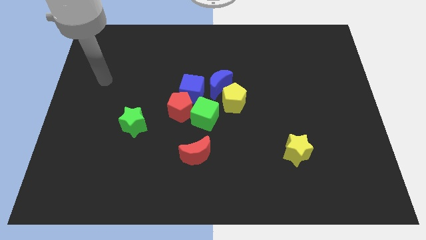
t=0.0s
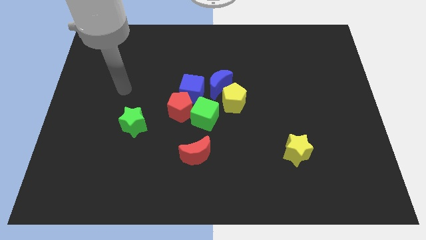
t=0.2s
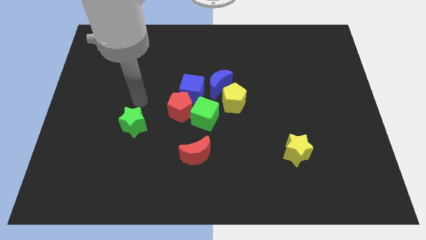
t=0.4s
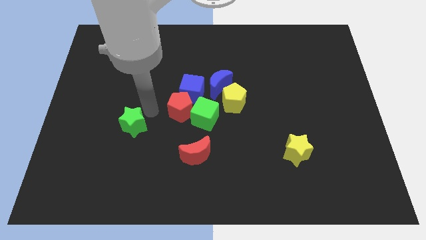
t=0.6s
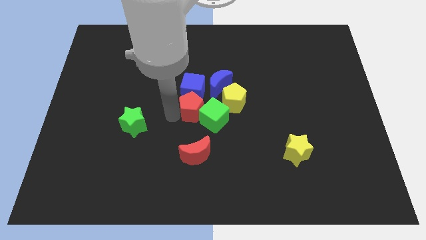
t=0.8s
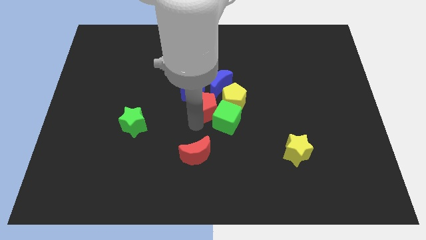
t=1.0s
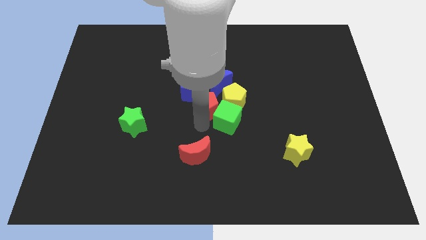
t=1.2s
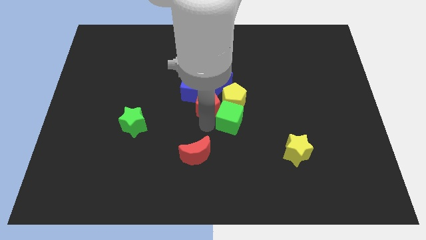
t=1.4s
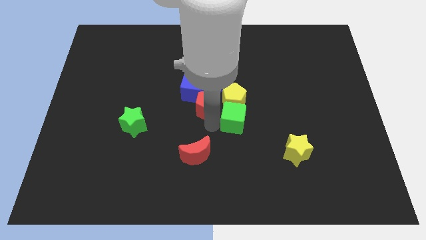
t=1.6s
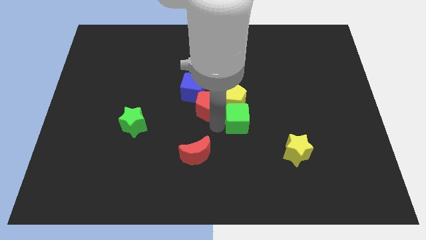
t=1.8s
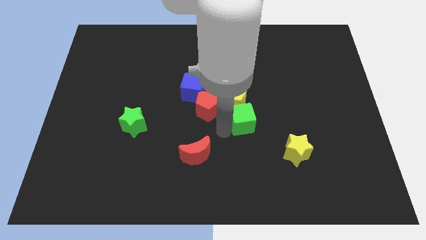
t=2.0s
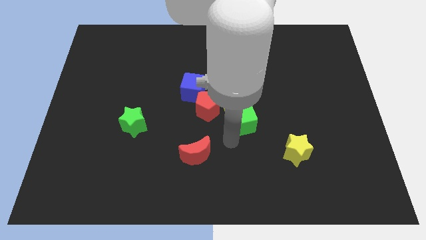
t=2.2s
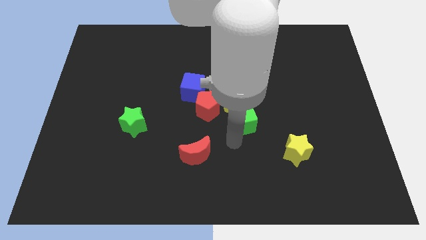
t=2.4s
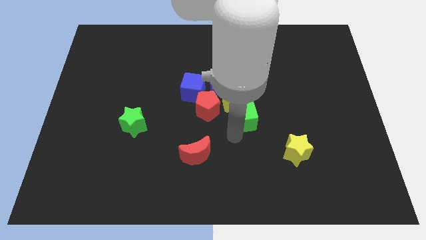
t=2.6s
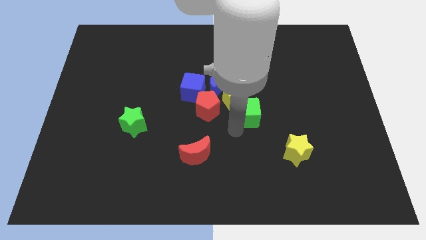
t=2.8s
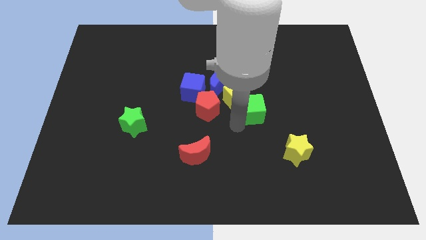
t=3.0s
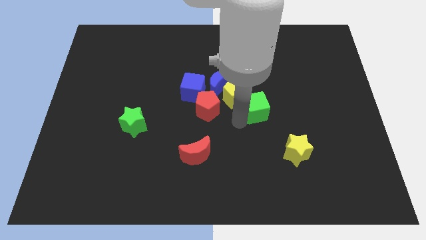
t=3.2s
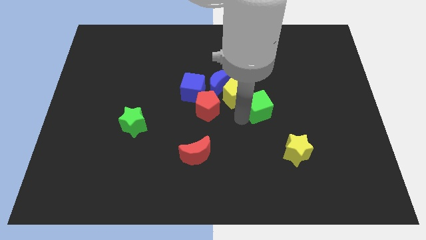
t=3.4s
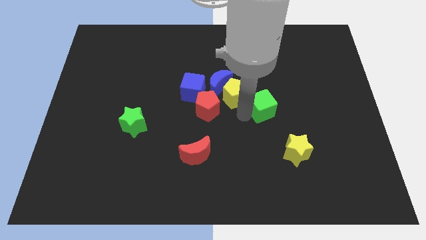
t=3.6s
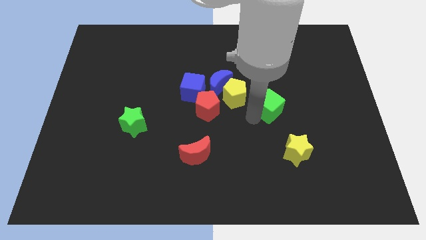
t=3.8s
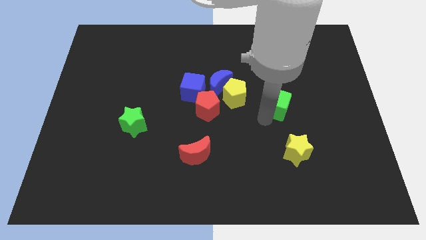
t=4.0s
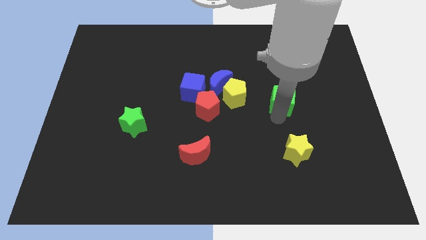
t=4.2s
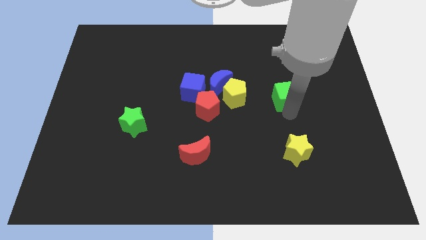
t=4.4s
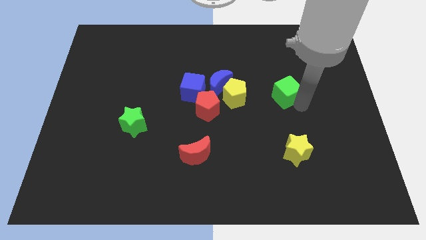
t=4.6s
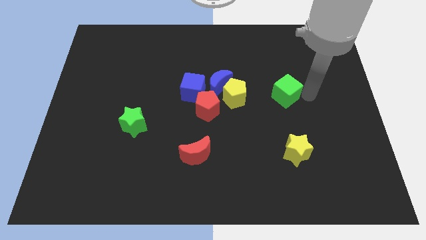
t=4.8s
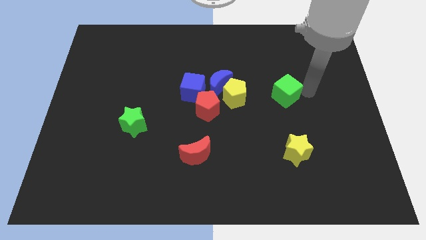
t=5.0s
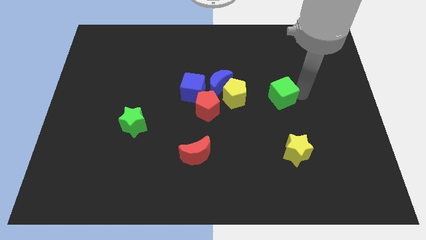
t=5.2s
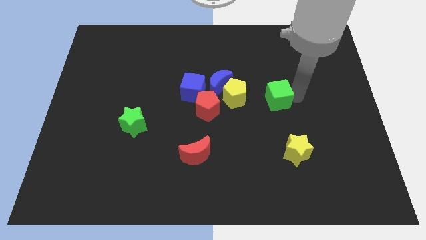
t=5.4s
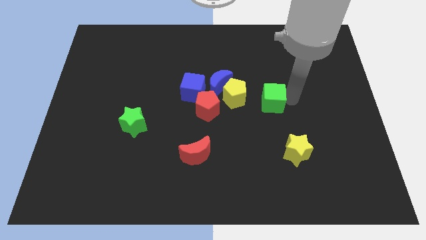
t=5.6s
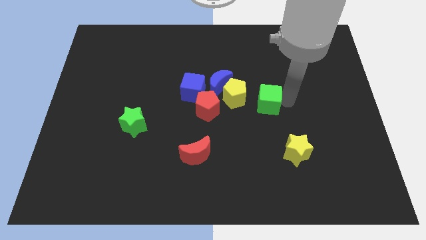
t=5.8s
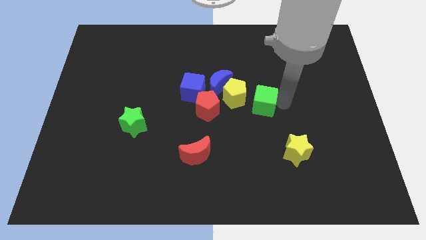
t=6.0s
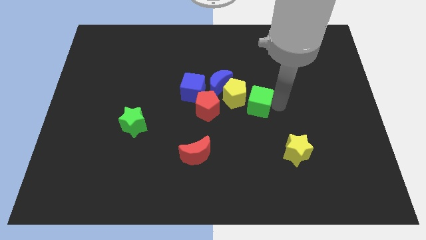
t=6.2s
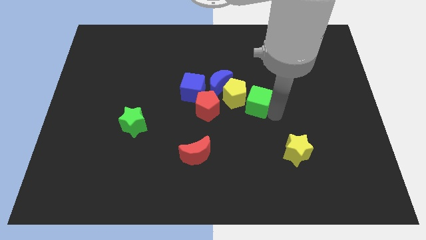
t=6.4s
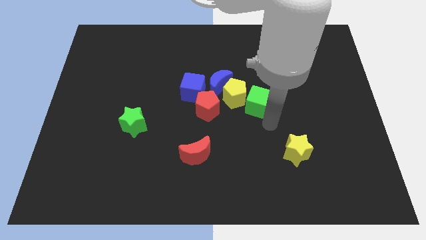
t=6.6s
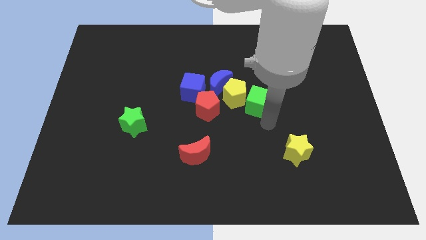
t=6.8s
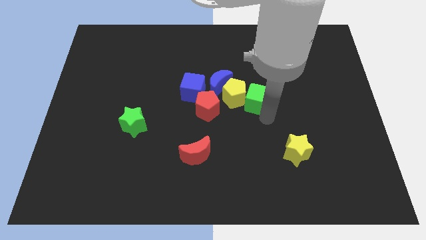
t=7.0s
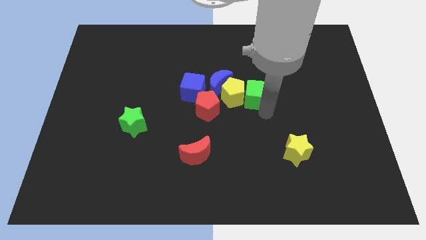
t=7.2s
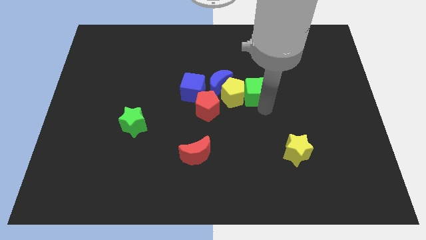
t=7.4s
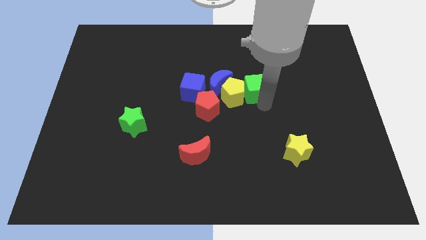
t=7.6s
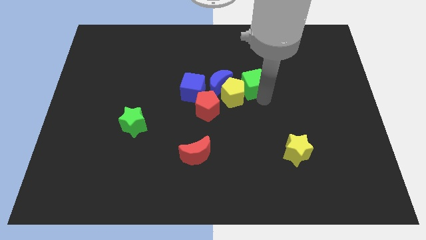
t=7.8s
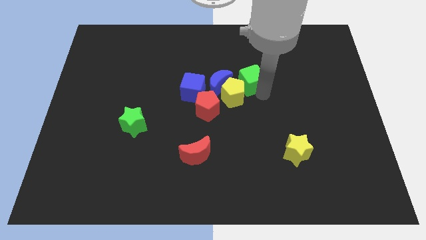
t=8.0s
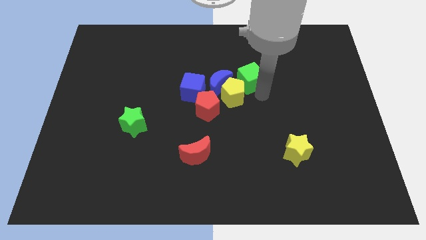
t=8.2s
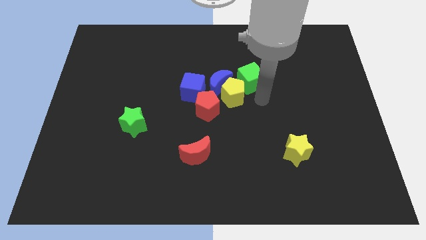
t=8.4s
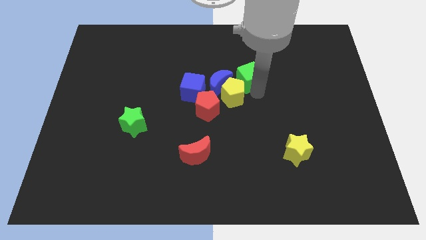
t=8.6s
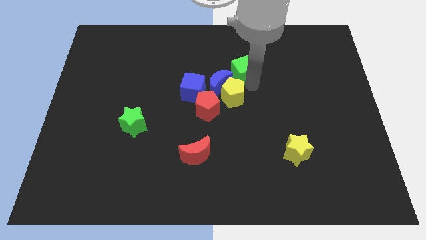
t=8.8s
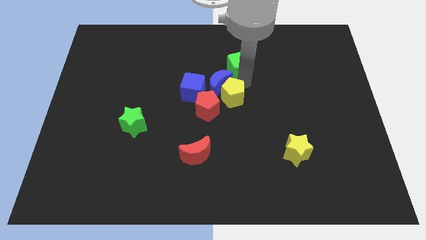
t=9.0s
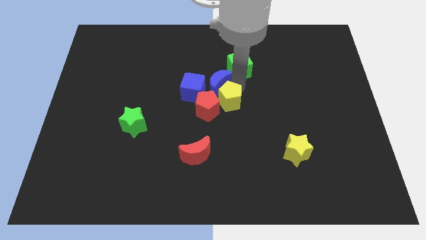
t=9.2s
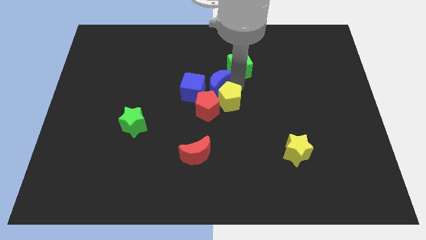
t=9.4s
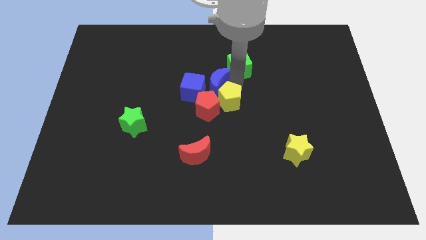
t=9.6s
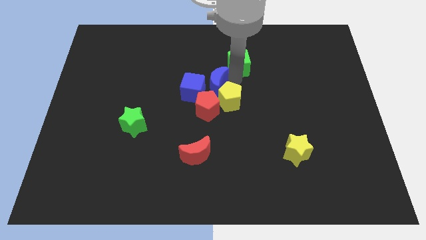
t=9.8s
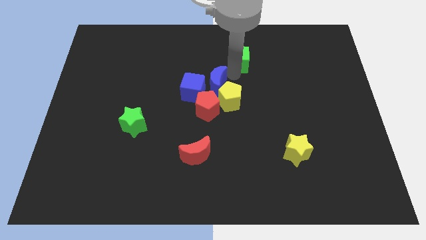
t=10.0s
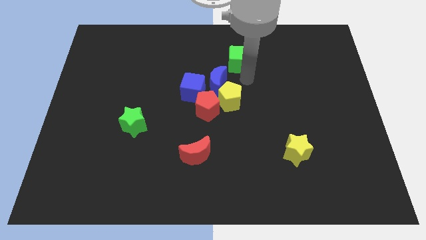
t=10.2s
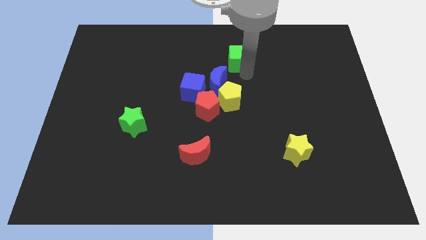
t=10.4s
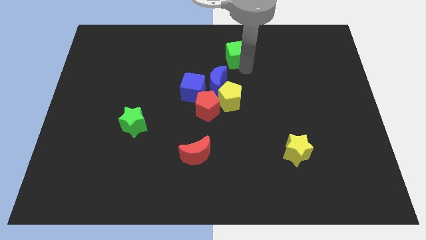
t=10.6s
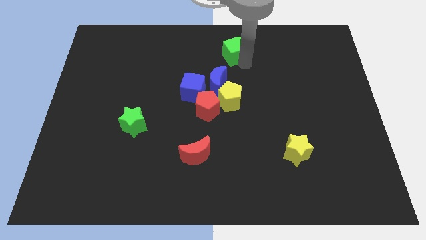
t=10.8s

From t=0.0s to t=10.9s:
move the green cube to the top side

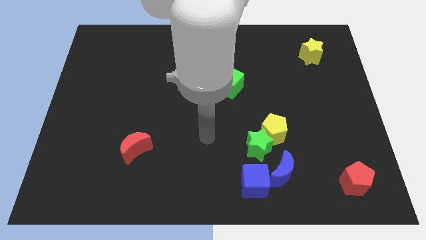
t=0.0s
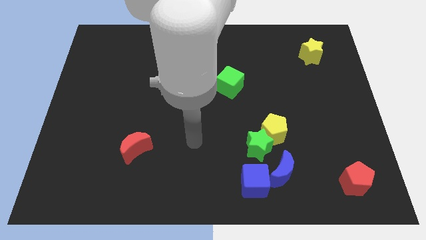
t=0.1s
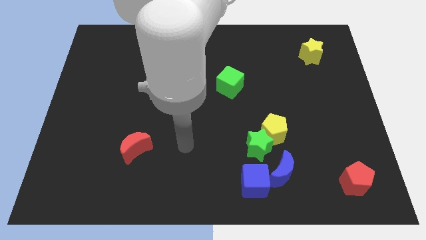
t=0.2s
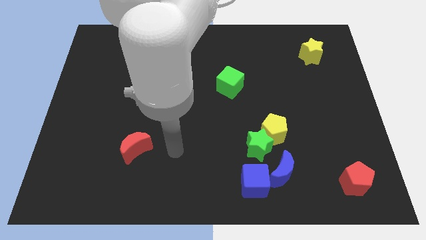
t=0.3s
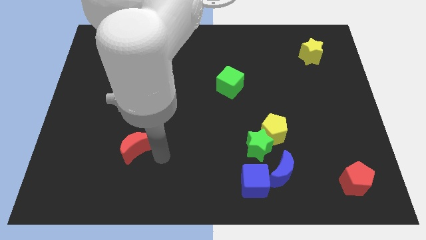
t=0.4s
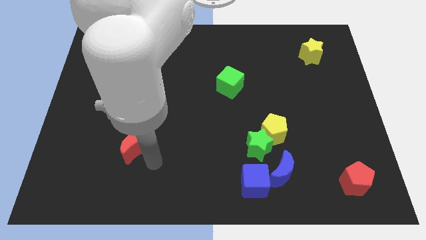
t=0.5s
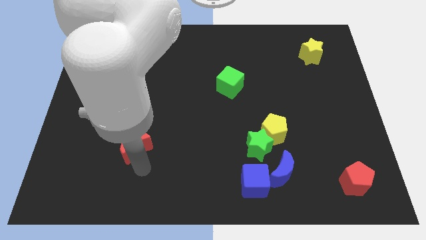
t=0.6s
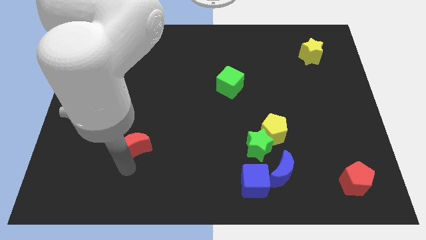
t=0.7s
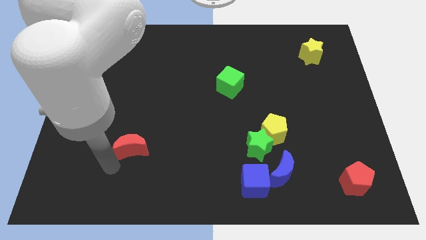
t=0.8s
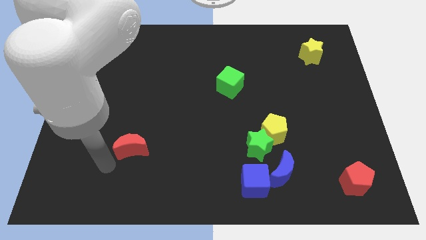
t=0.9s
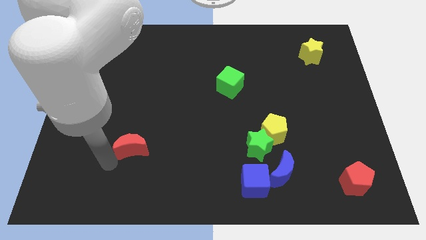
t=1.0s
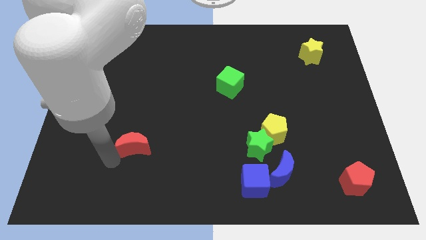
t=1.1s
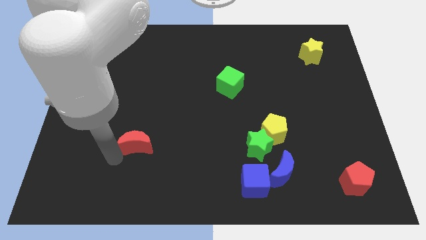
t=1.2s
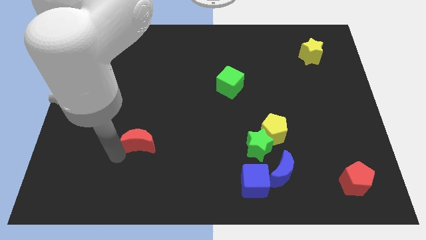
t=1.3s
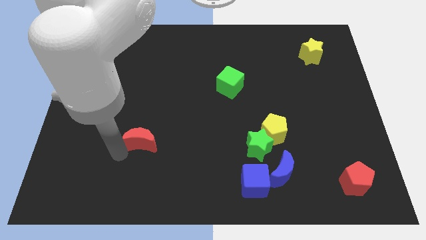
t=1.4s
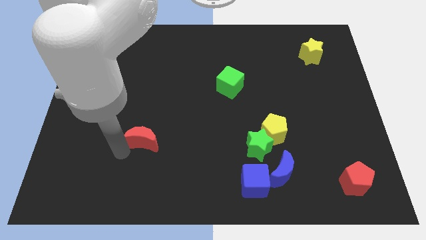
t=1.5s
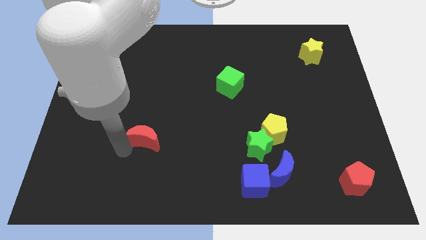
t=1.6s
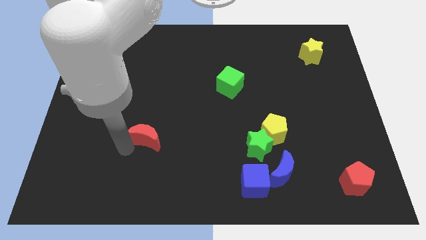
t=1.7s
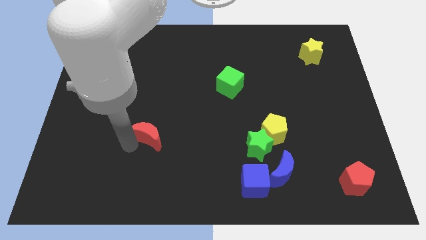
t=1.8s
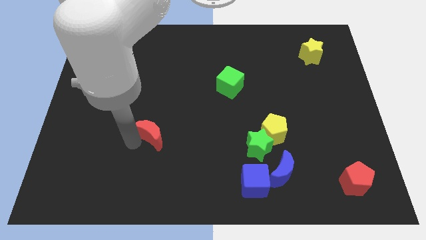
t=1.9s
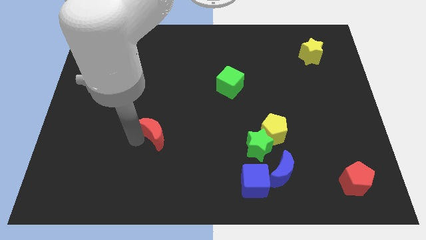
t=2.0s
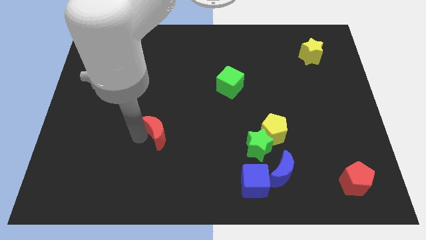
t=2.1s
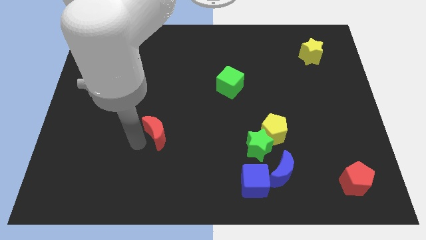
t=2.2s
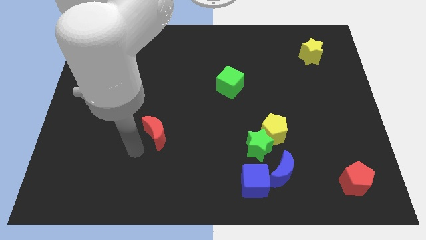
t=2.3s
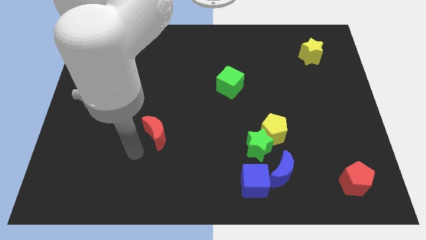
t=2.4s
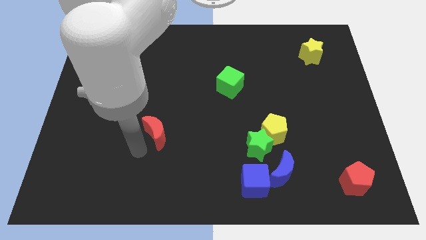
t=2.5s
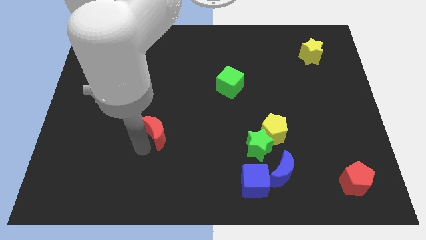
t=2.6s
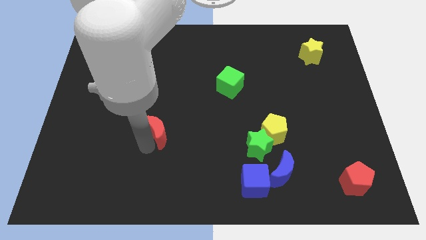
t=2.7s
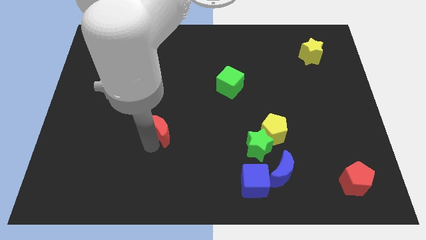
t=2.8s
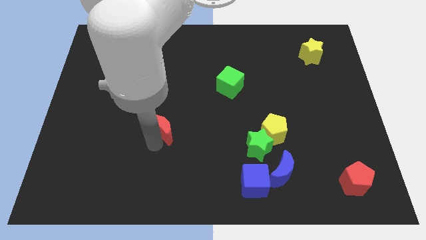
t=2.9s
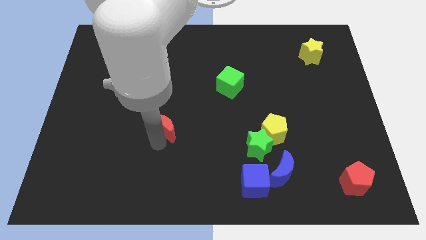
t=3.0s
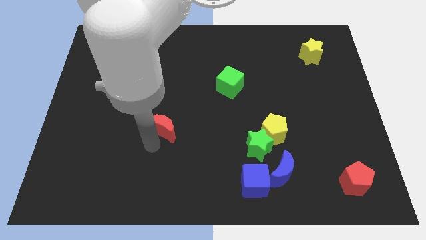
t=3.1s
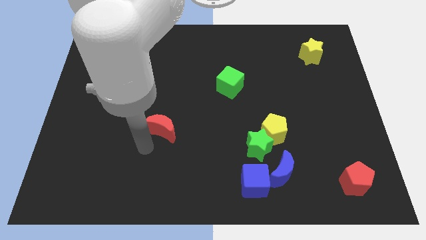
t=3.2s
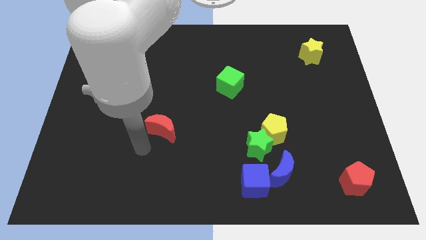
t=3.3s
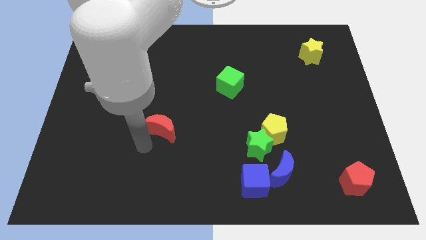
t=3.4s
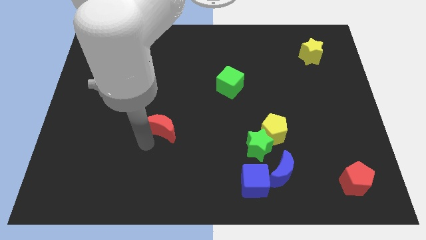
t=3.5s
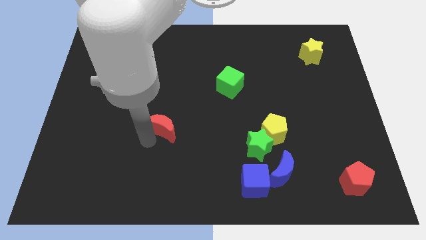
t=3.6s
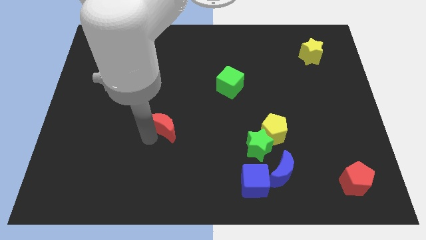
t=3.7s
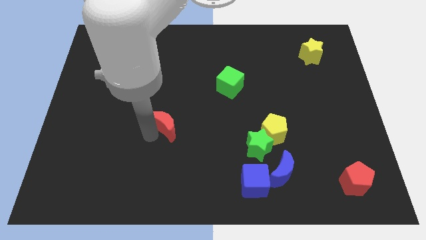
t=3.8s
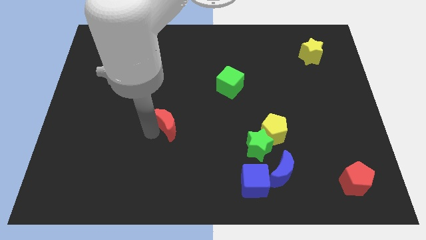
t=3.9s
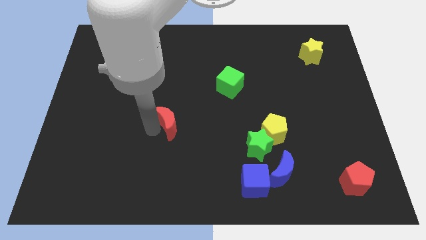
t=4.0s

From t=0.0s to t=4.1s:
put the red moon to the center
